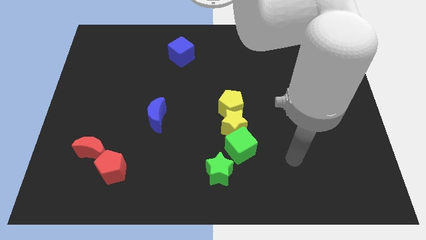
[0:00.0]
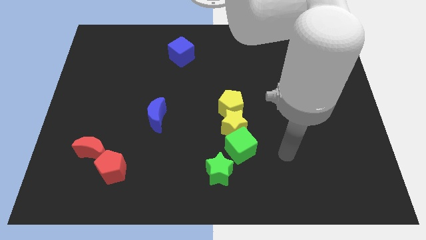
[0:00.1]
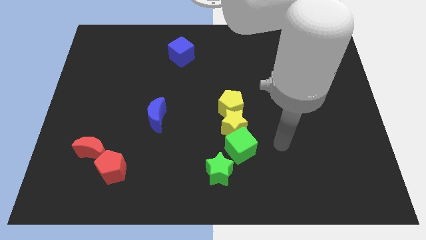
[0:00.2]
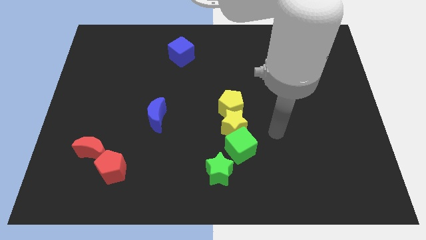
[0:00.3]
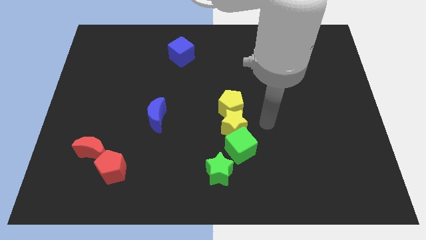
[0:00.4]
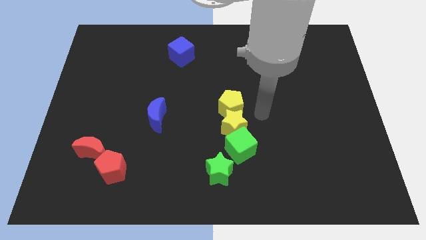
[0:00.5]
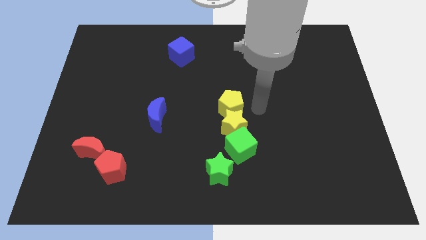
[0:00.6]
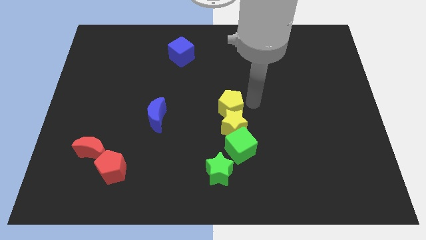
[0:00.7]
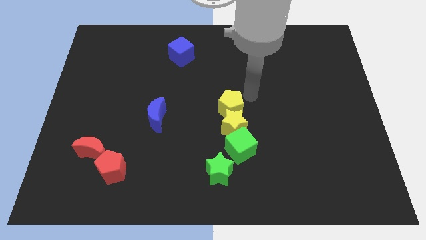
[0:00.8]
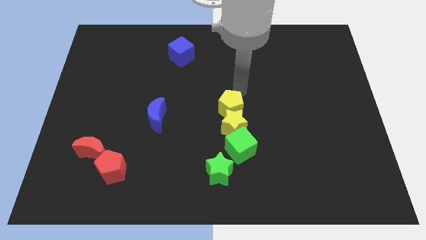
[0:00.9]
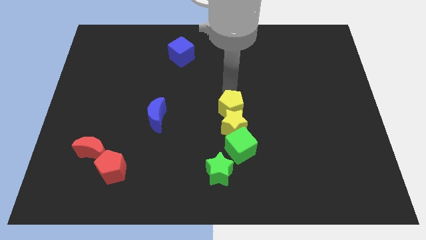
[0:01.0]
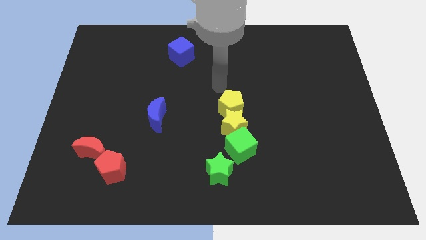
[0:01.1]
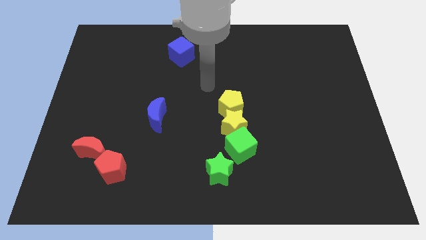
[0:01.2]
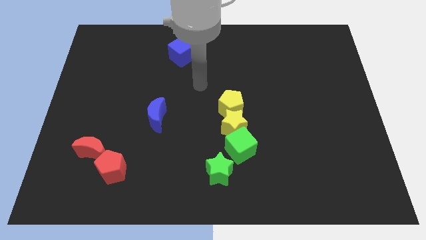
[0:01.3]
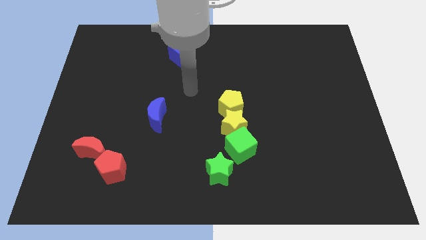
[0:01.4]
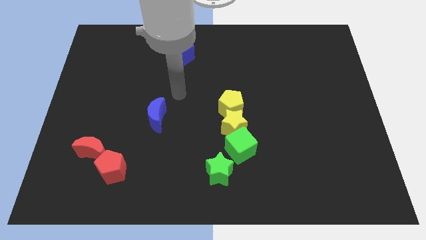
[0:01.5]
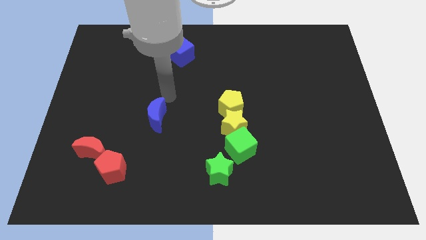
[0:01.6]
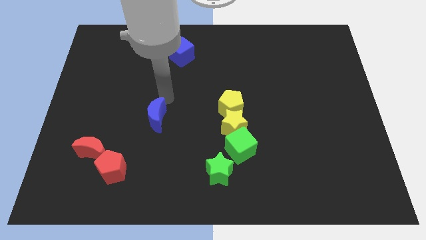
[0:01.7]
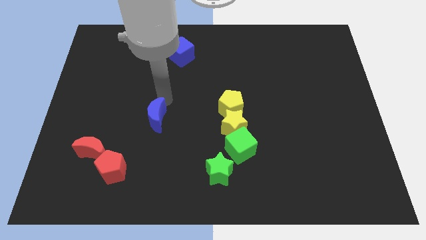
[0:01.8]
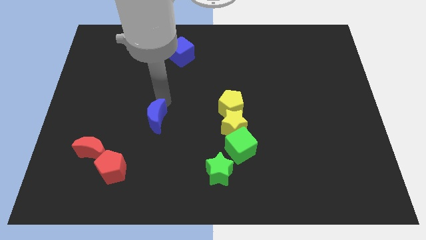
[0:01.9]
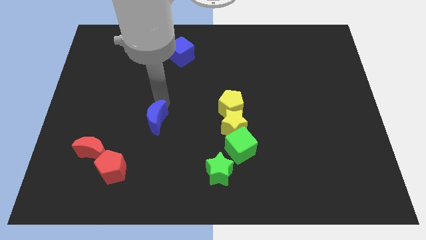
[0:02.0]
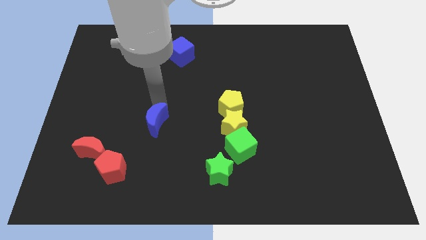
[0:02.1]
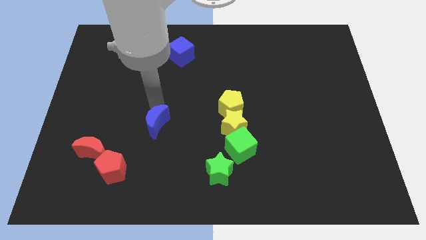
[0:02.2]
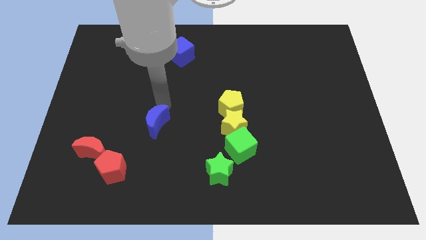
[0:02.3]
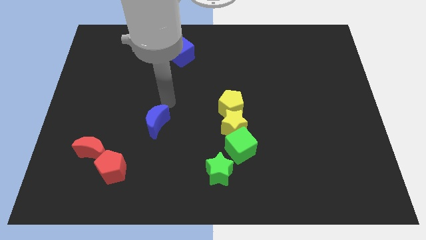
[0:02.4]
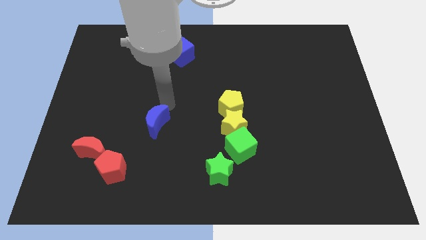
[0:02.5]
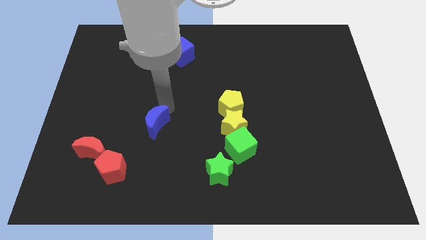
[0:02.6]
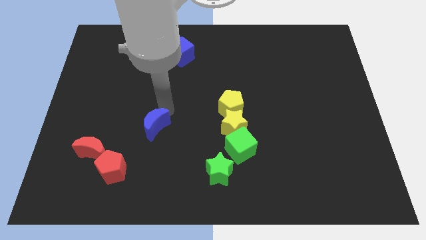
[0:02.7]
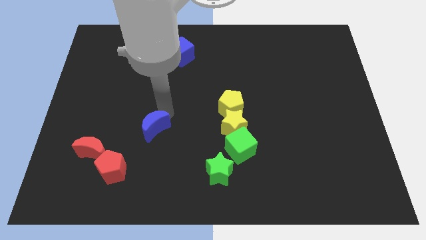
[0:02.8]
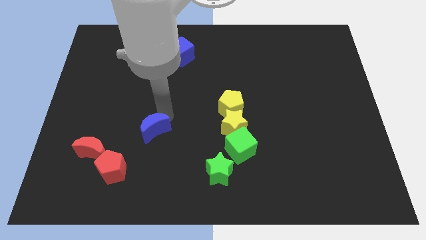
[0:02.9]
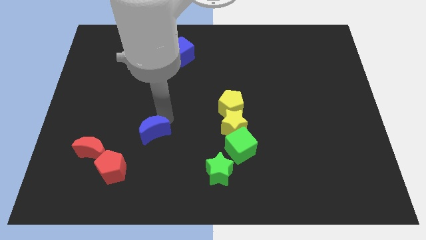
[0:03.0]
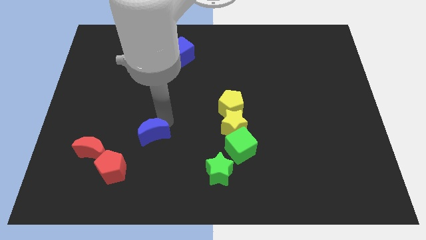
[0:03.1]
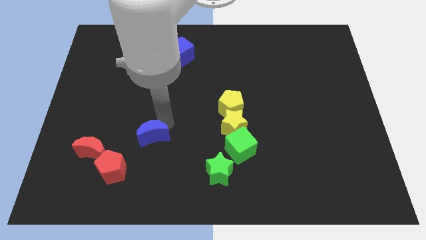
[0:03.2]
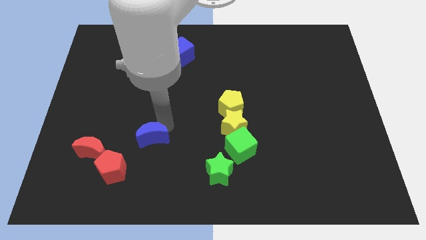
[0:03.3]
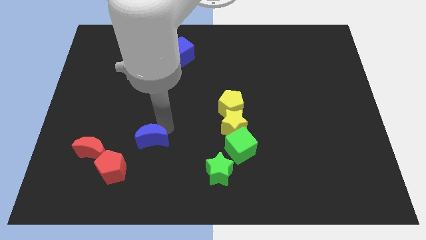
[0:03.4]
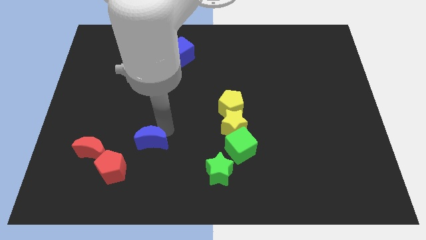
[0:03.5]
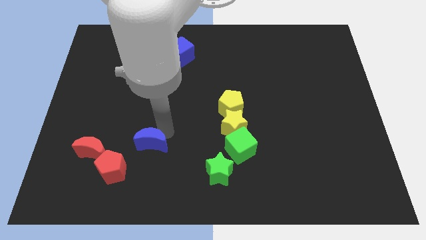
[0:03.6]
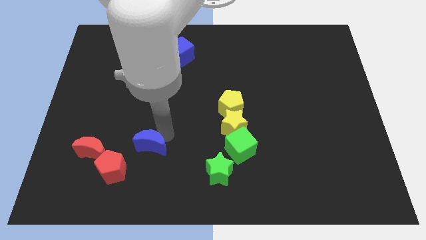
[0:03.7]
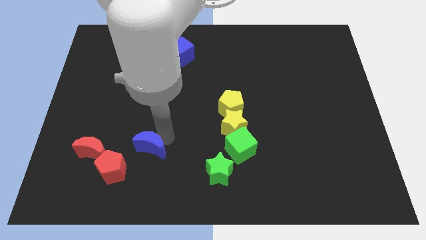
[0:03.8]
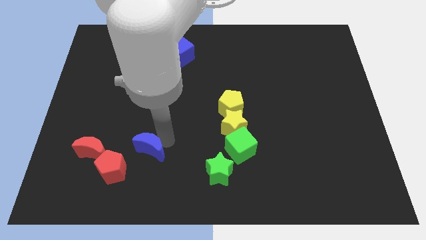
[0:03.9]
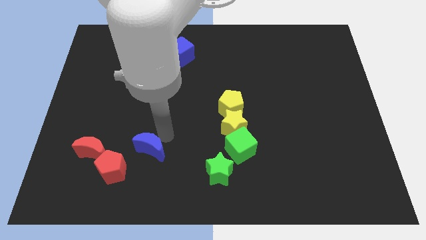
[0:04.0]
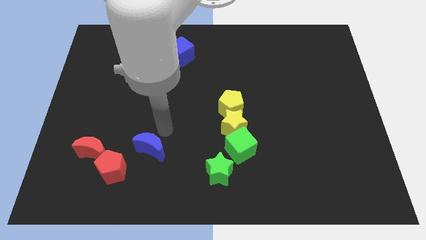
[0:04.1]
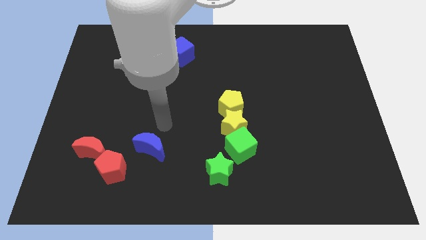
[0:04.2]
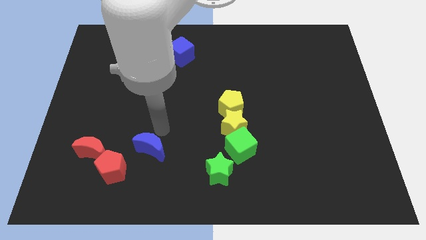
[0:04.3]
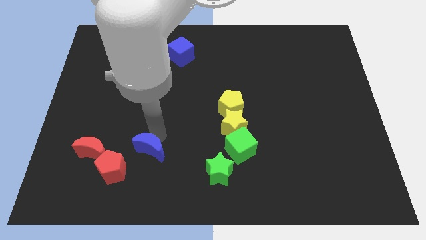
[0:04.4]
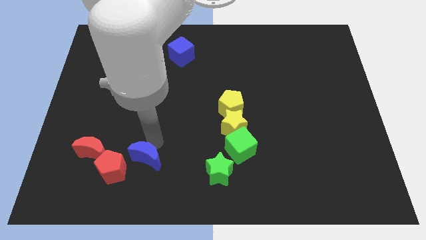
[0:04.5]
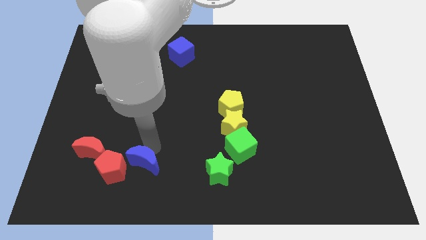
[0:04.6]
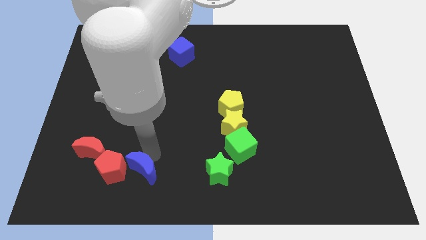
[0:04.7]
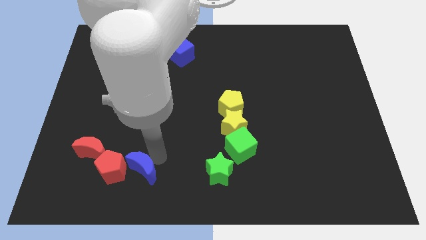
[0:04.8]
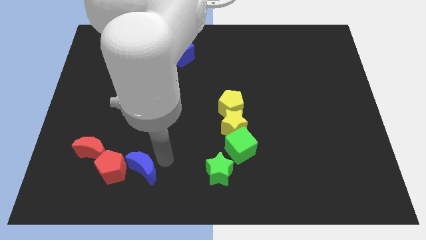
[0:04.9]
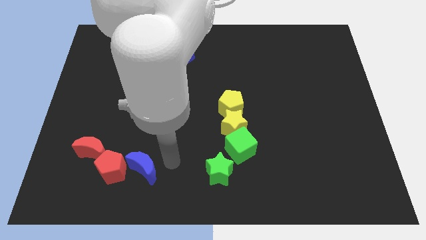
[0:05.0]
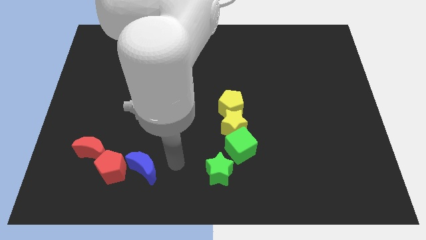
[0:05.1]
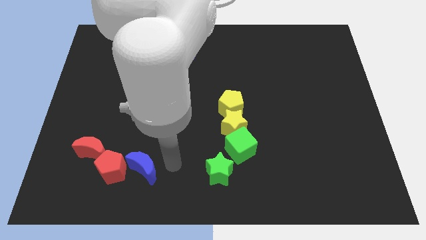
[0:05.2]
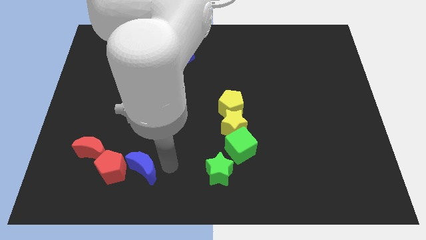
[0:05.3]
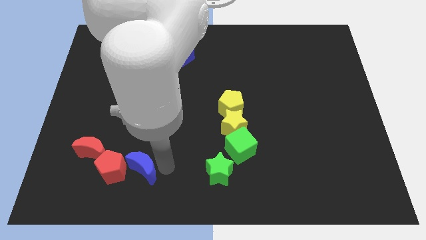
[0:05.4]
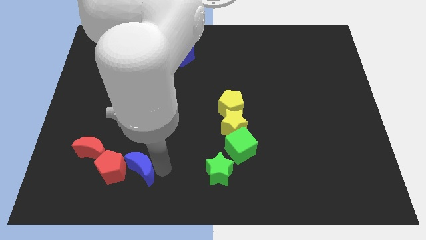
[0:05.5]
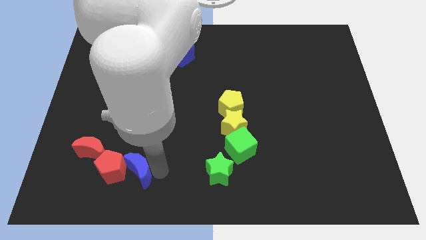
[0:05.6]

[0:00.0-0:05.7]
move the blue moon diagonally down and to the right of the red moon

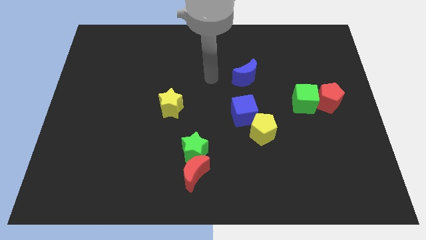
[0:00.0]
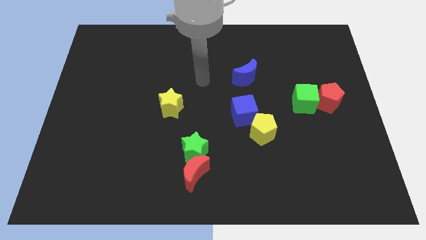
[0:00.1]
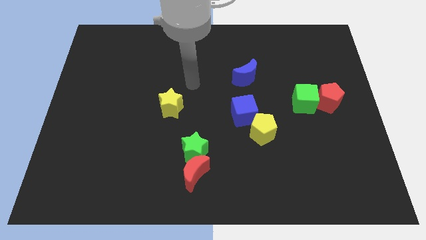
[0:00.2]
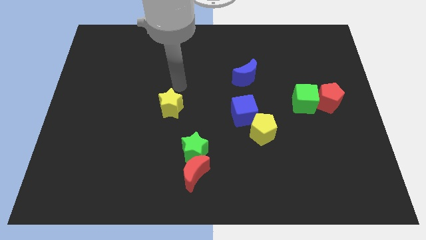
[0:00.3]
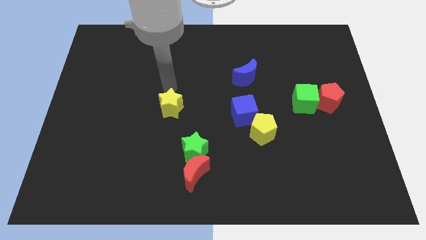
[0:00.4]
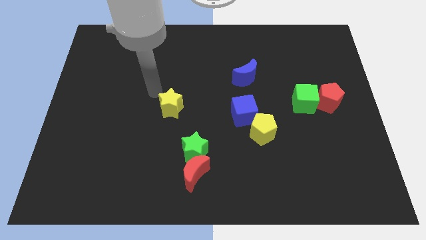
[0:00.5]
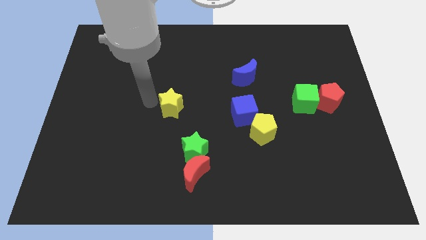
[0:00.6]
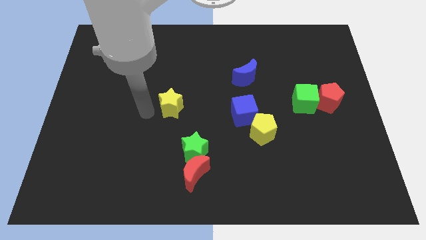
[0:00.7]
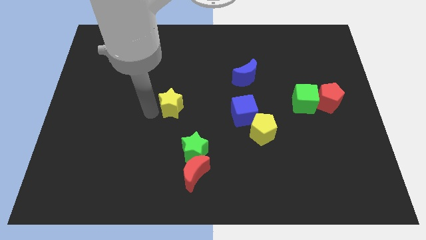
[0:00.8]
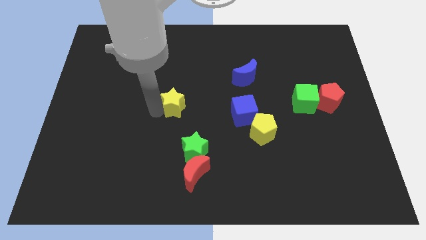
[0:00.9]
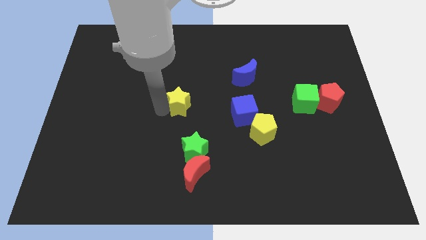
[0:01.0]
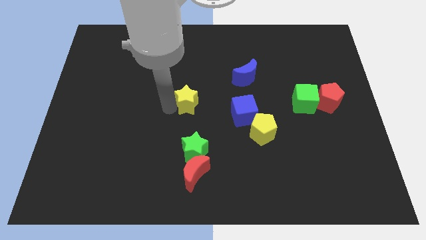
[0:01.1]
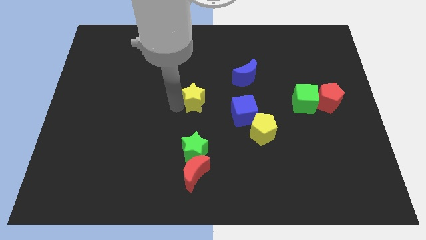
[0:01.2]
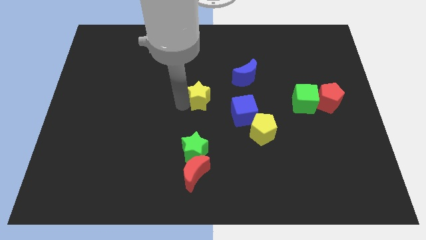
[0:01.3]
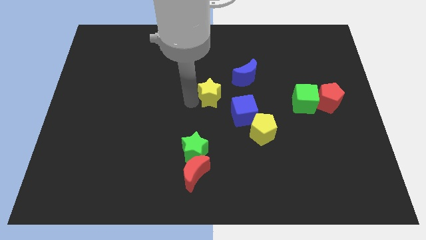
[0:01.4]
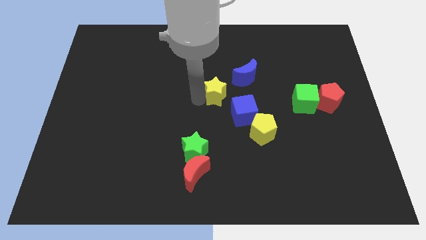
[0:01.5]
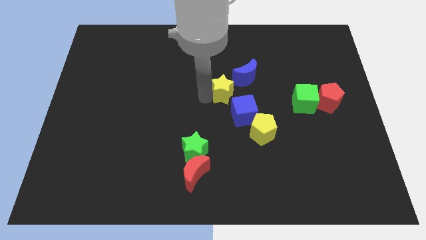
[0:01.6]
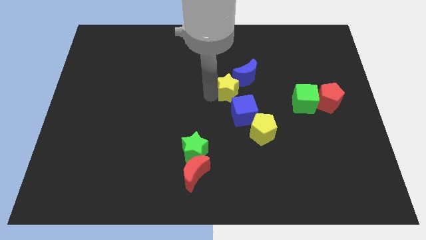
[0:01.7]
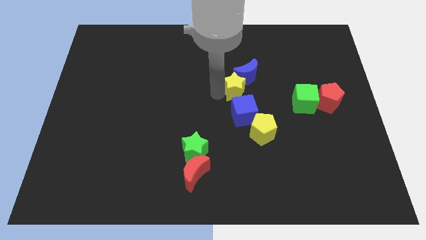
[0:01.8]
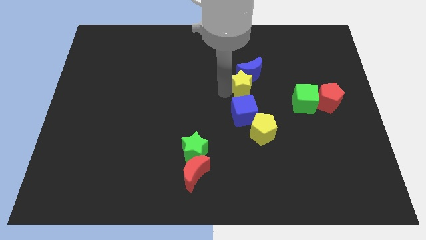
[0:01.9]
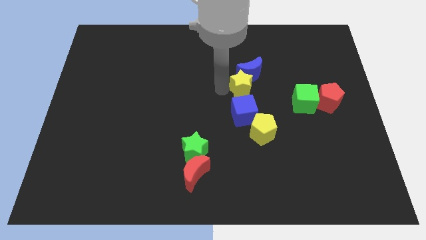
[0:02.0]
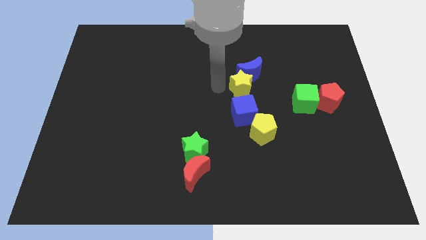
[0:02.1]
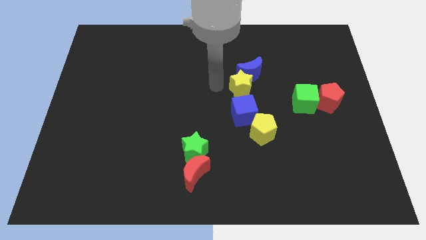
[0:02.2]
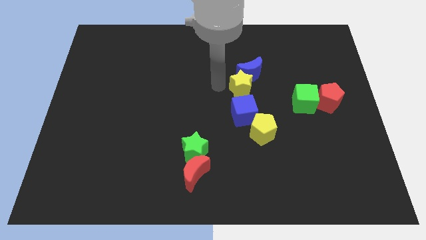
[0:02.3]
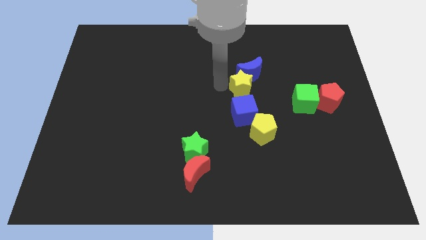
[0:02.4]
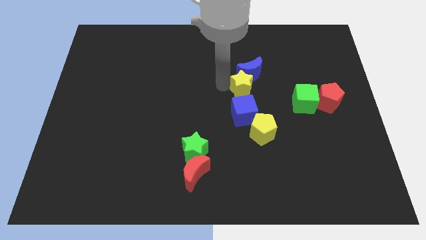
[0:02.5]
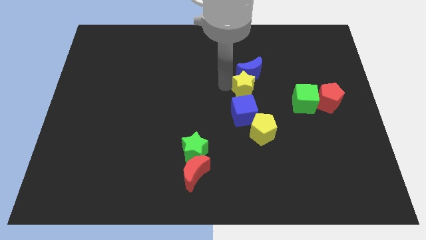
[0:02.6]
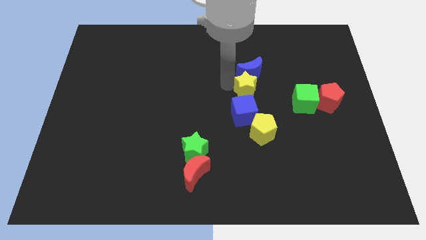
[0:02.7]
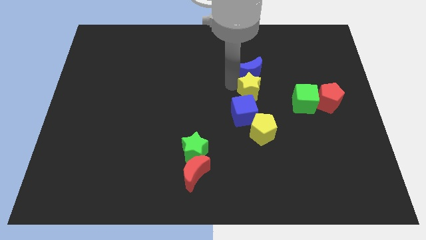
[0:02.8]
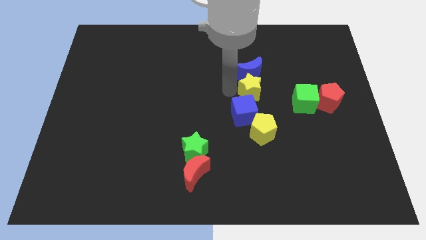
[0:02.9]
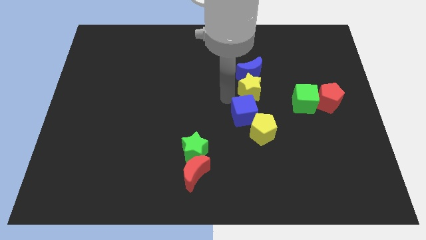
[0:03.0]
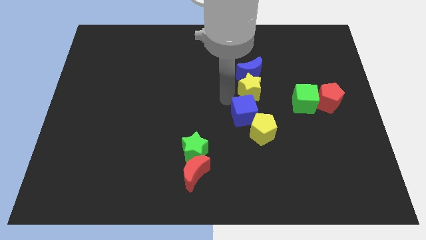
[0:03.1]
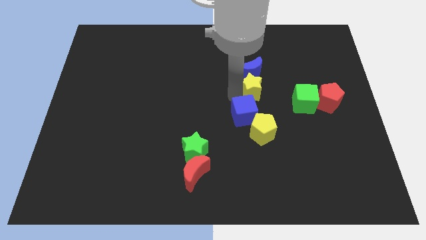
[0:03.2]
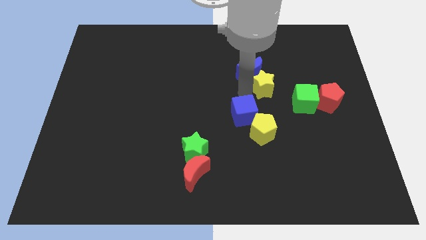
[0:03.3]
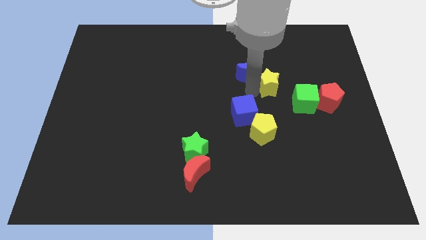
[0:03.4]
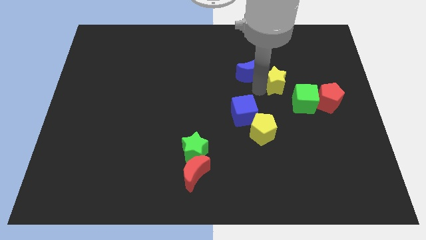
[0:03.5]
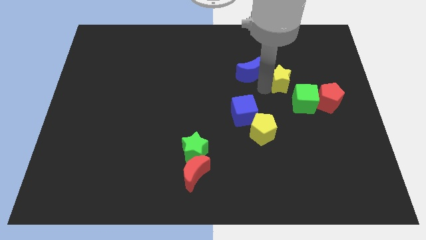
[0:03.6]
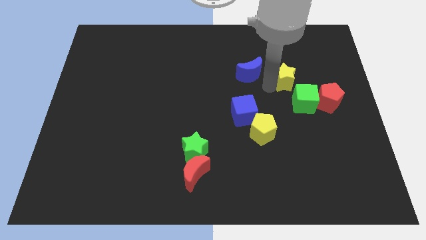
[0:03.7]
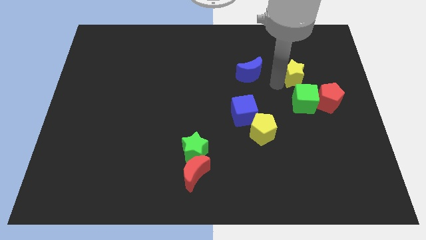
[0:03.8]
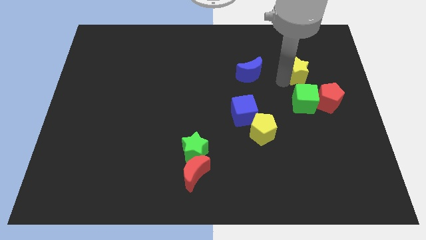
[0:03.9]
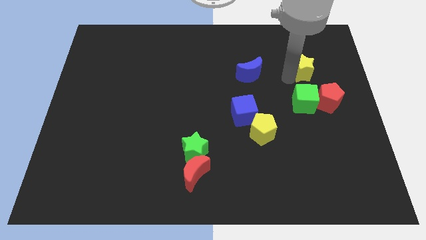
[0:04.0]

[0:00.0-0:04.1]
push the yellow star to the top side of the red pentagon
